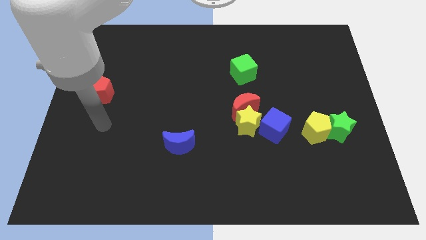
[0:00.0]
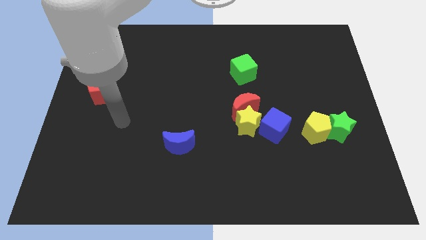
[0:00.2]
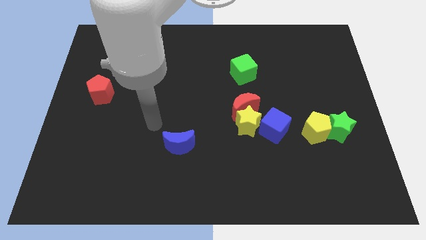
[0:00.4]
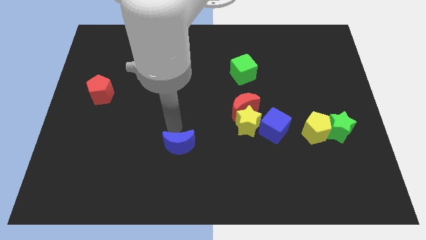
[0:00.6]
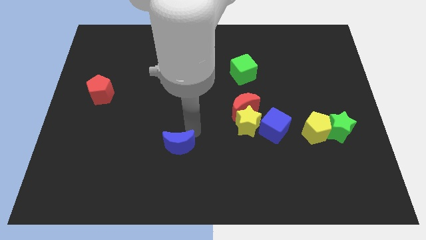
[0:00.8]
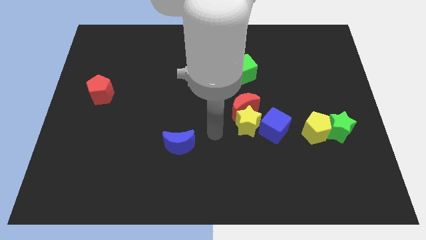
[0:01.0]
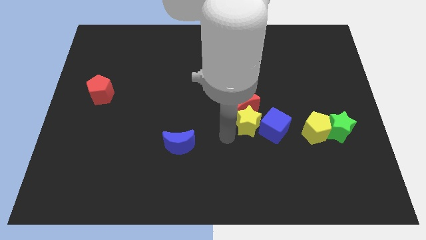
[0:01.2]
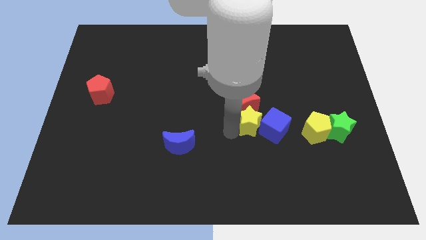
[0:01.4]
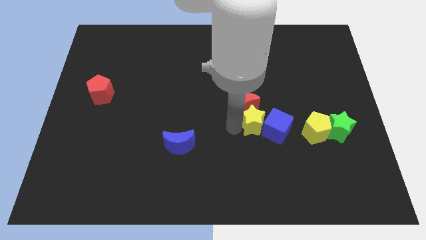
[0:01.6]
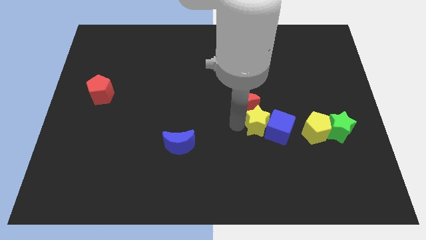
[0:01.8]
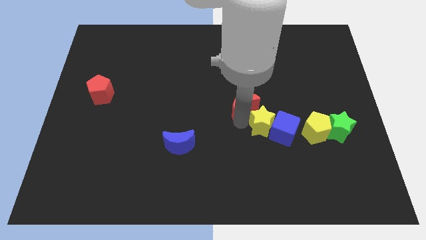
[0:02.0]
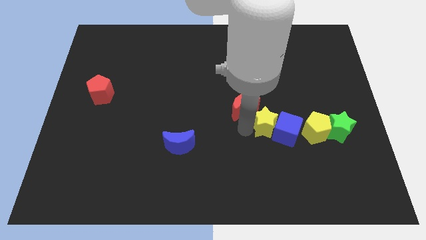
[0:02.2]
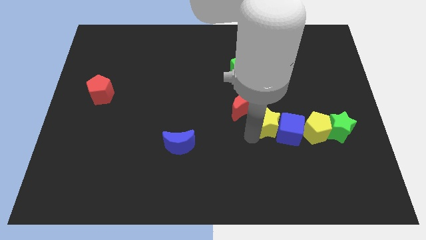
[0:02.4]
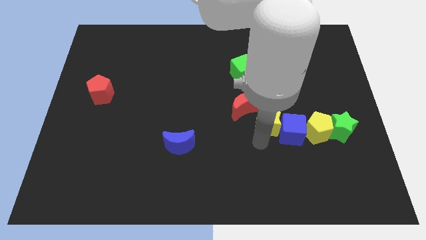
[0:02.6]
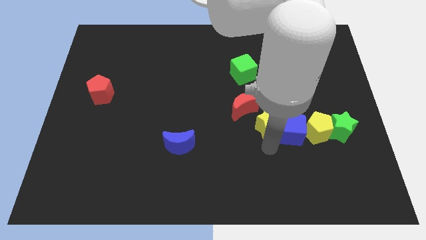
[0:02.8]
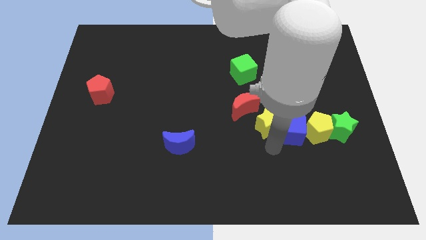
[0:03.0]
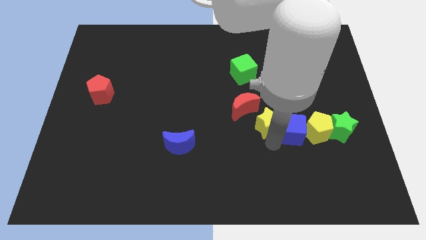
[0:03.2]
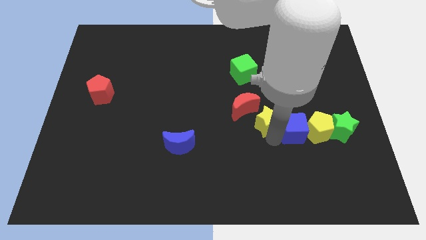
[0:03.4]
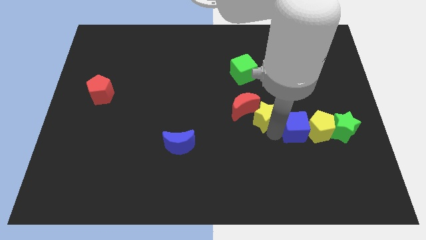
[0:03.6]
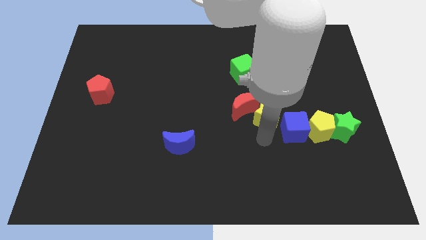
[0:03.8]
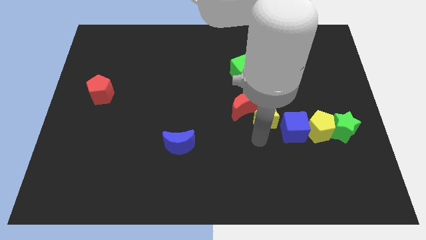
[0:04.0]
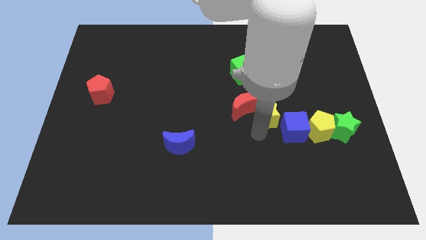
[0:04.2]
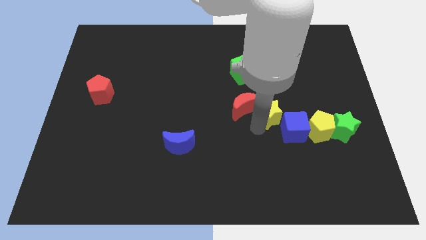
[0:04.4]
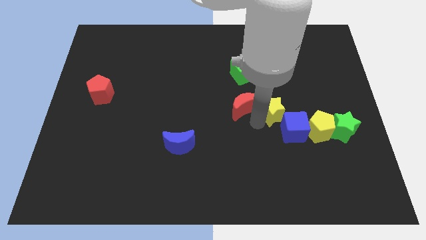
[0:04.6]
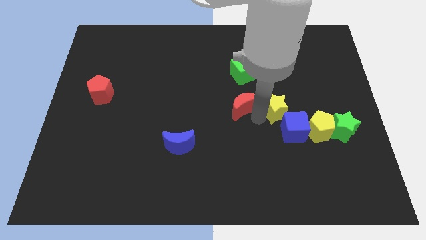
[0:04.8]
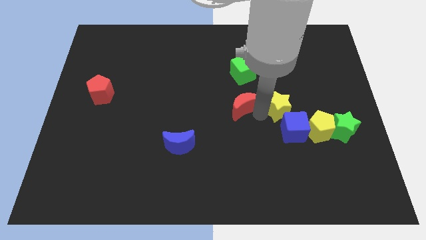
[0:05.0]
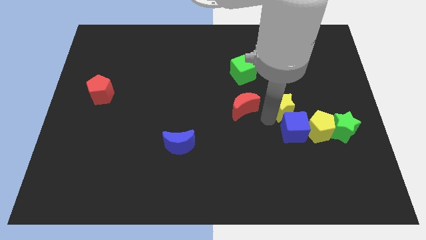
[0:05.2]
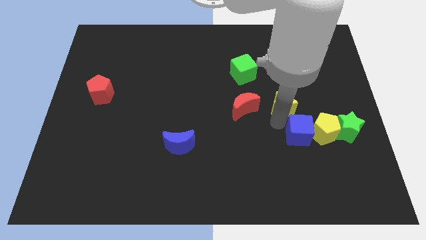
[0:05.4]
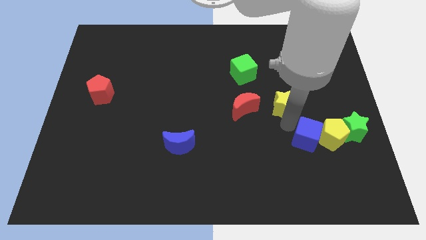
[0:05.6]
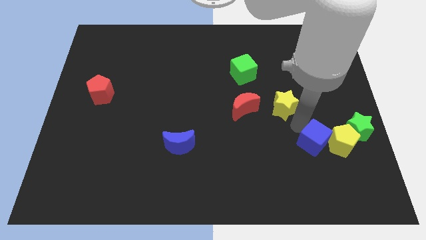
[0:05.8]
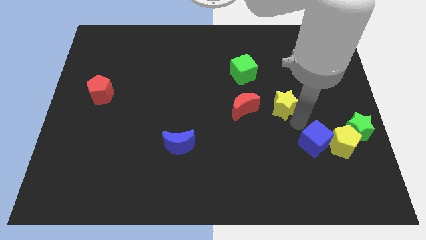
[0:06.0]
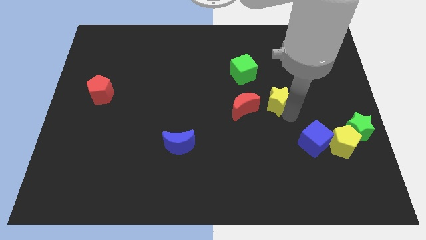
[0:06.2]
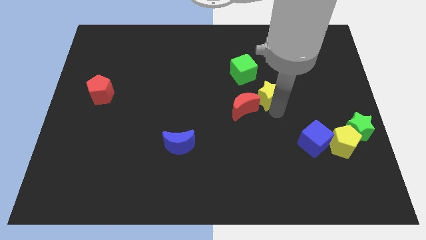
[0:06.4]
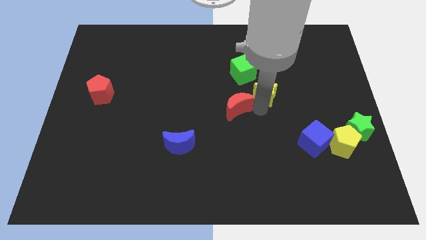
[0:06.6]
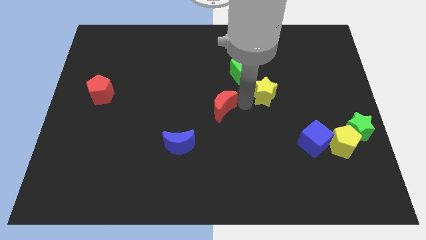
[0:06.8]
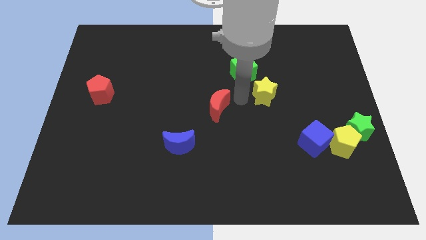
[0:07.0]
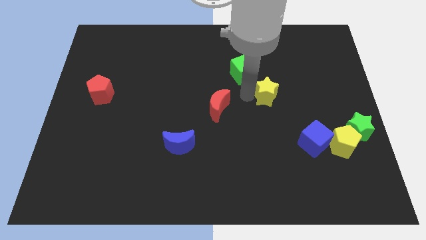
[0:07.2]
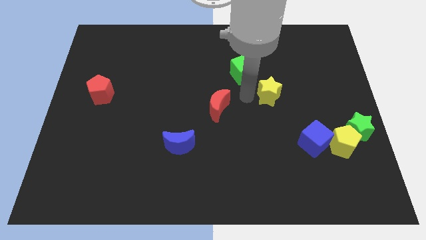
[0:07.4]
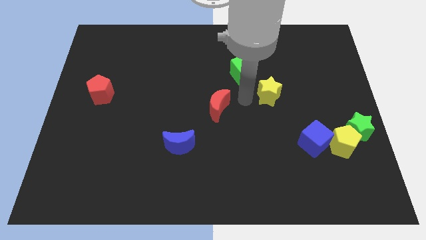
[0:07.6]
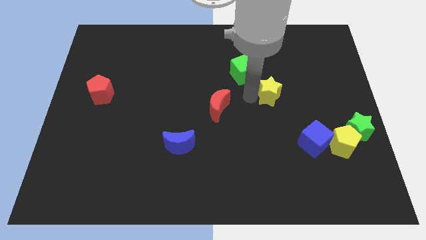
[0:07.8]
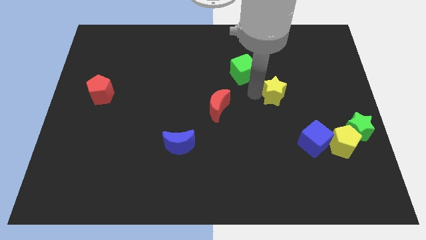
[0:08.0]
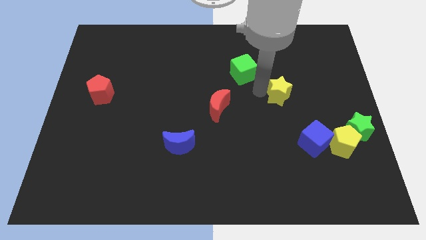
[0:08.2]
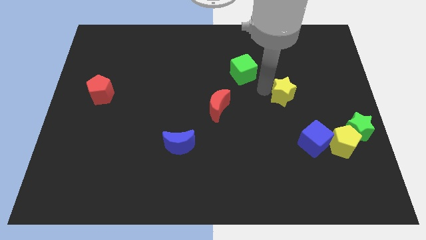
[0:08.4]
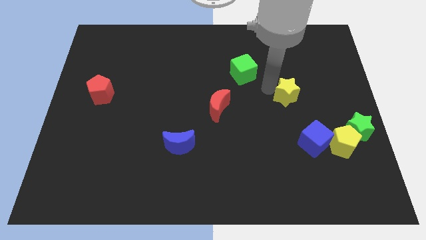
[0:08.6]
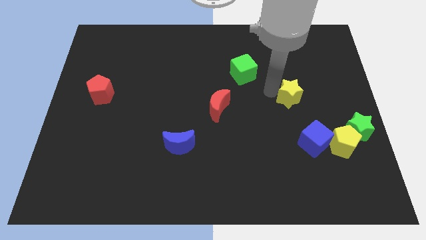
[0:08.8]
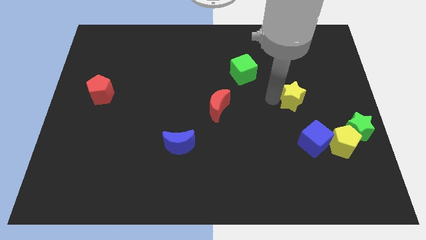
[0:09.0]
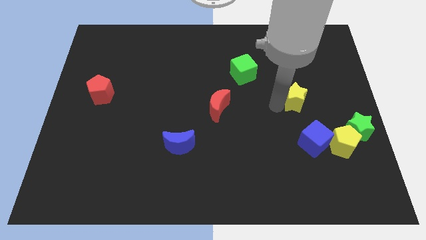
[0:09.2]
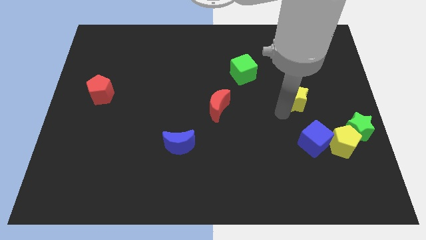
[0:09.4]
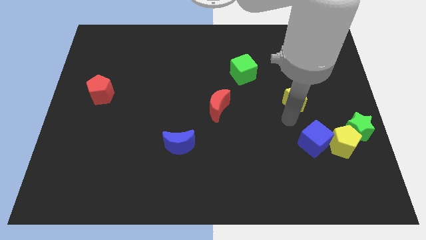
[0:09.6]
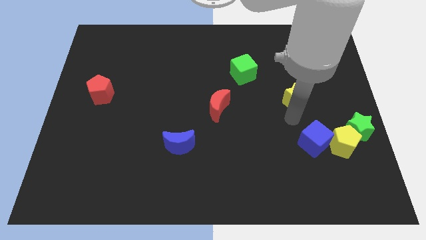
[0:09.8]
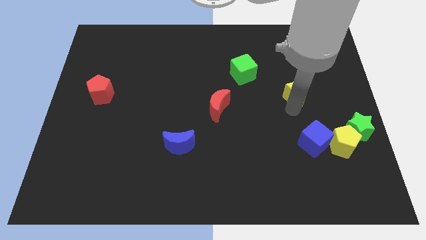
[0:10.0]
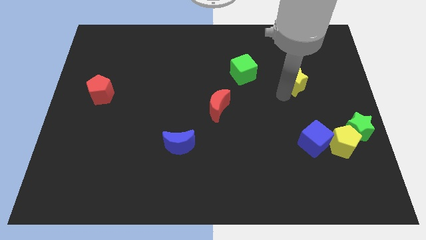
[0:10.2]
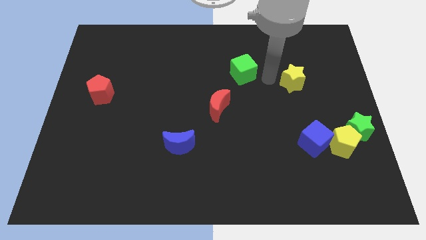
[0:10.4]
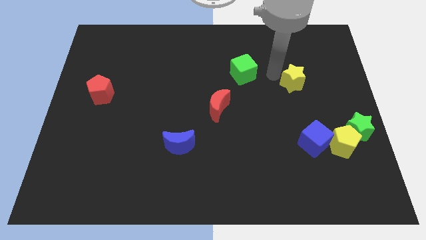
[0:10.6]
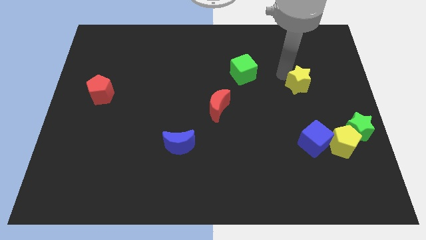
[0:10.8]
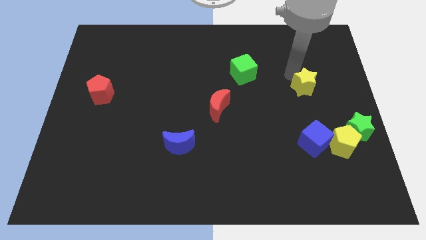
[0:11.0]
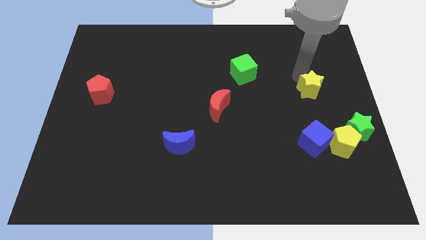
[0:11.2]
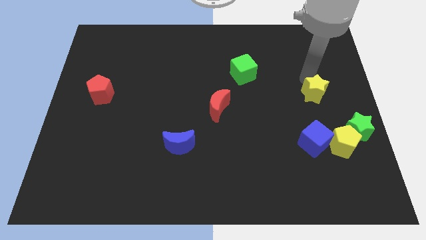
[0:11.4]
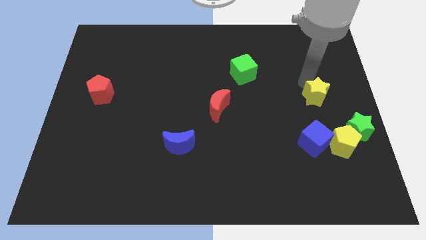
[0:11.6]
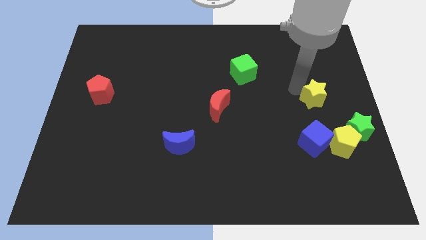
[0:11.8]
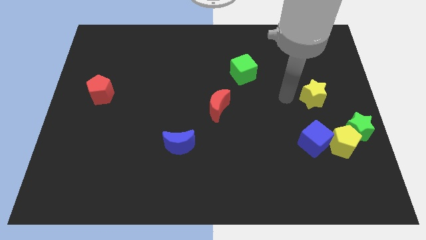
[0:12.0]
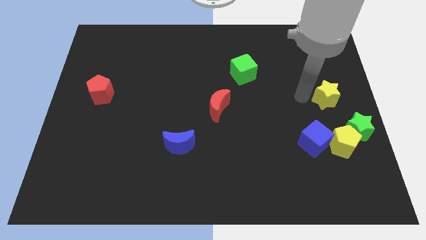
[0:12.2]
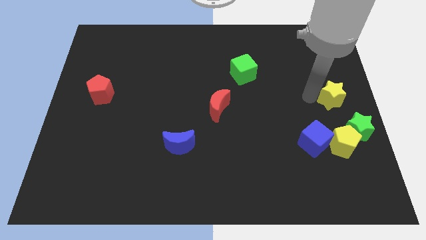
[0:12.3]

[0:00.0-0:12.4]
move the yellow star to the top of the green star
